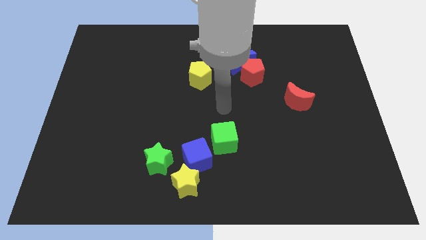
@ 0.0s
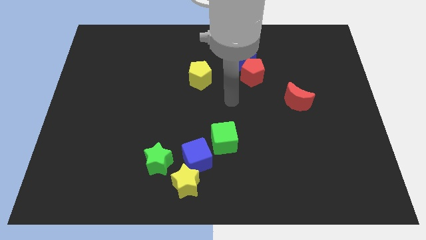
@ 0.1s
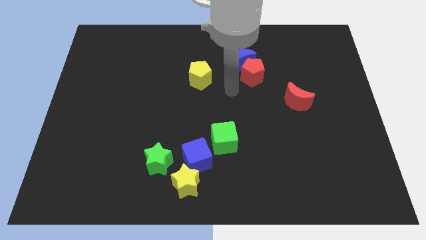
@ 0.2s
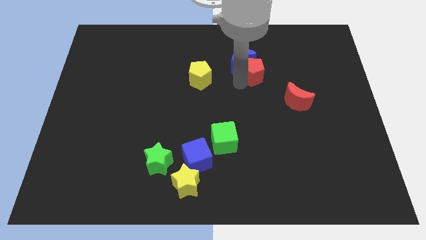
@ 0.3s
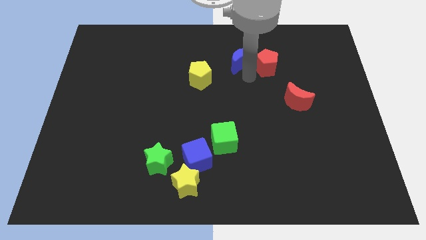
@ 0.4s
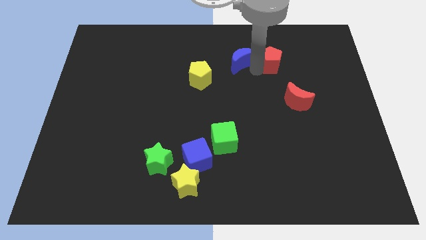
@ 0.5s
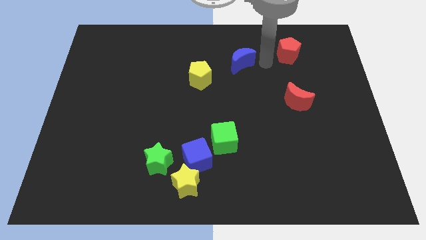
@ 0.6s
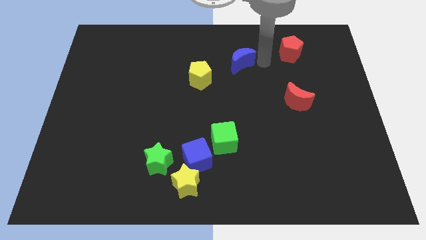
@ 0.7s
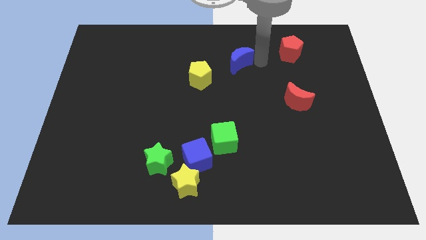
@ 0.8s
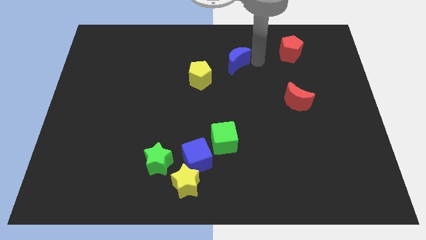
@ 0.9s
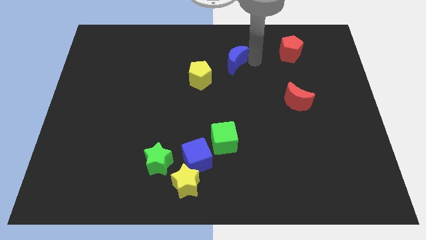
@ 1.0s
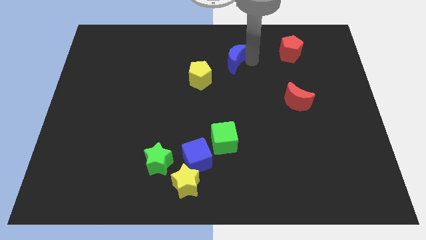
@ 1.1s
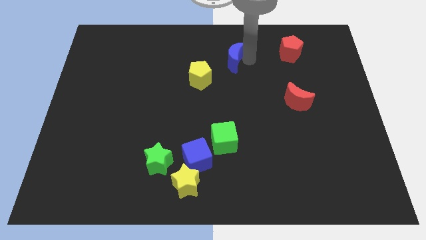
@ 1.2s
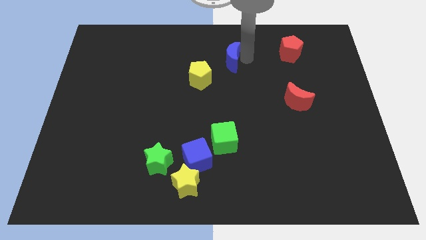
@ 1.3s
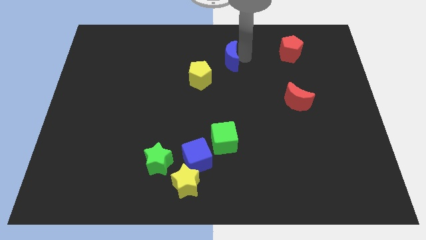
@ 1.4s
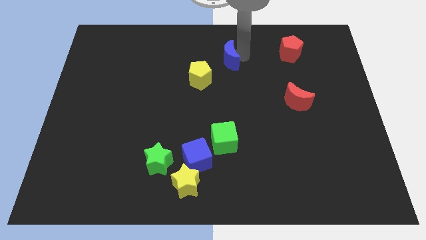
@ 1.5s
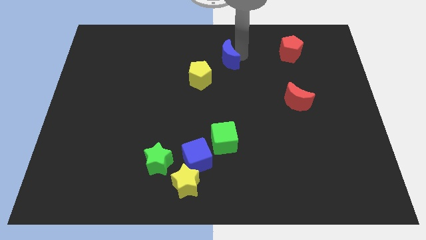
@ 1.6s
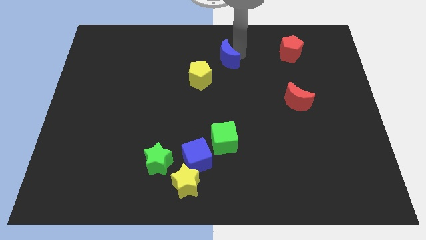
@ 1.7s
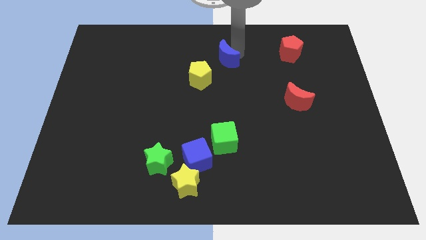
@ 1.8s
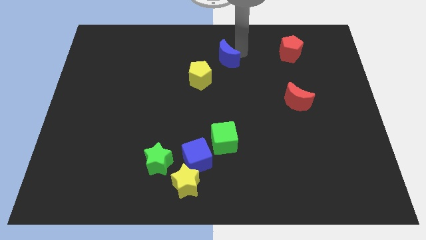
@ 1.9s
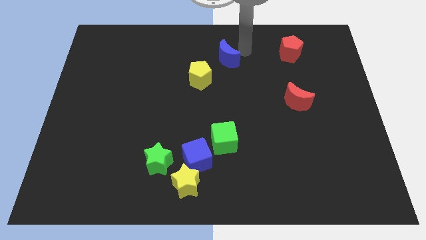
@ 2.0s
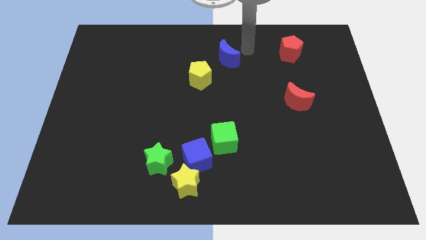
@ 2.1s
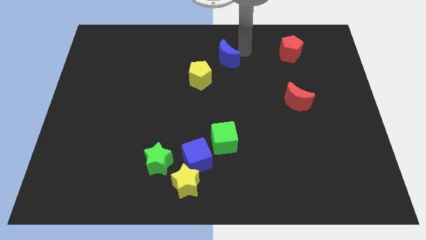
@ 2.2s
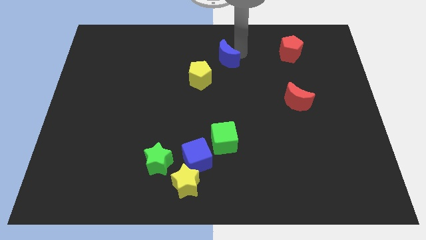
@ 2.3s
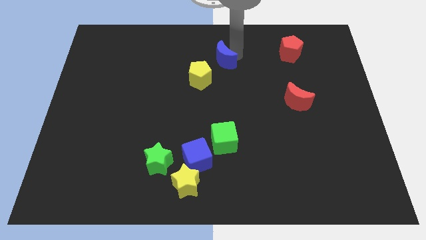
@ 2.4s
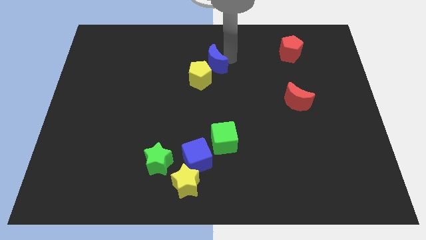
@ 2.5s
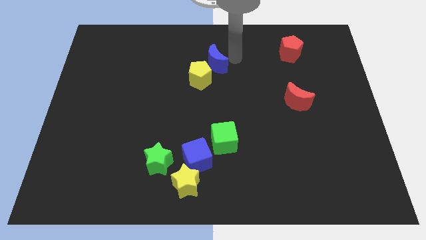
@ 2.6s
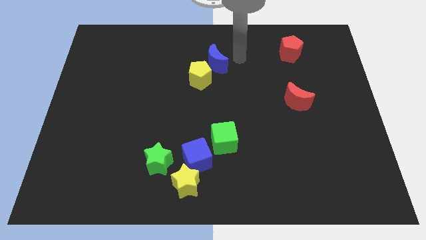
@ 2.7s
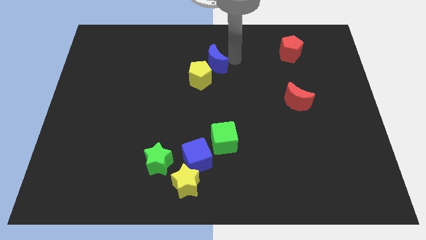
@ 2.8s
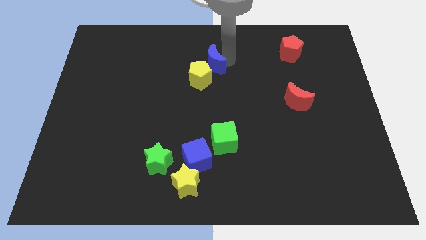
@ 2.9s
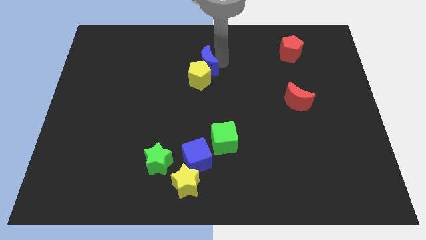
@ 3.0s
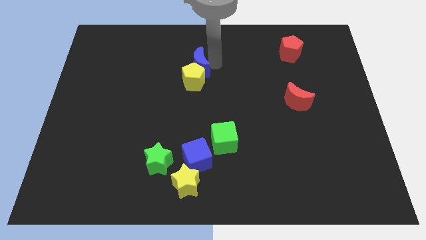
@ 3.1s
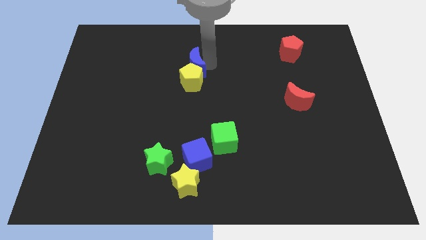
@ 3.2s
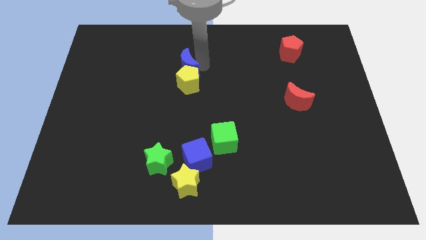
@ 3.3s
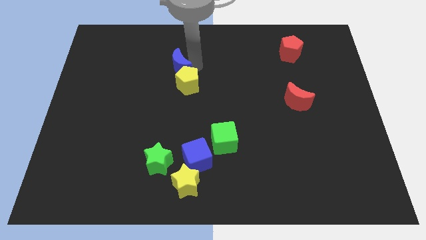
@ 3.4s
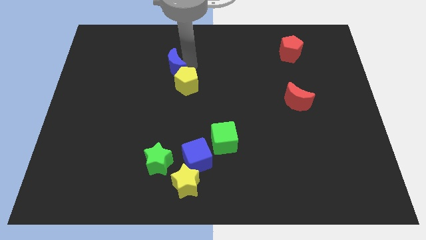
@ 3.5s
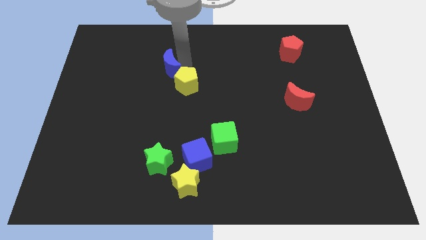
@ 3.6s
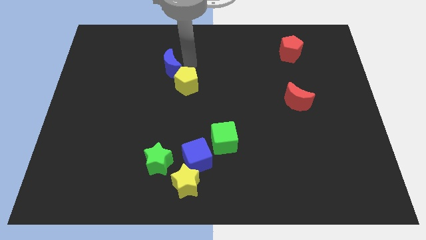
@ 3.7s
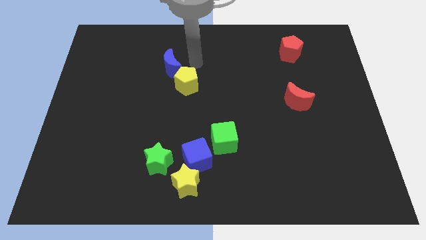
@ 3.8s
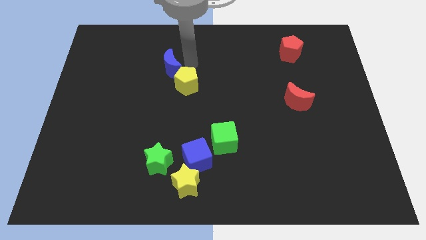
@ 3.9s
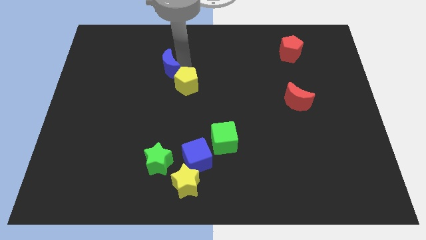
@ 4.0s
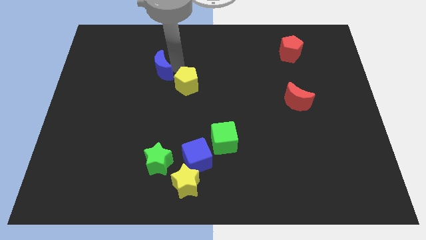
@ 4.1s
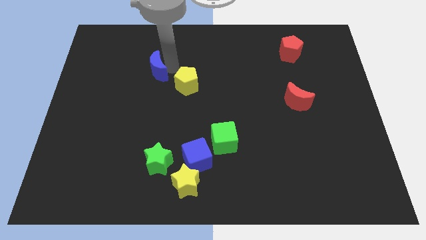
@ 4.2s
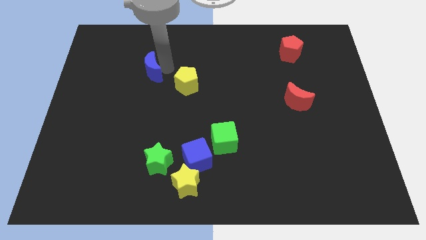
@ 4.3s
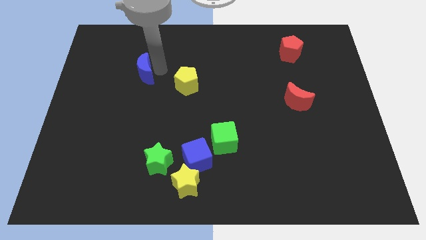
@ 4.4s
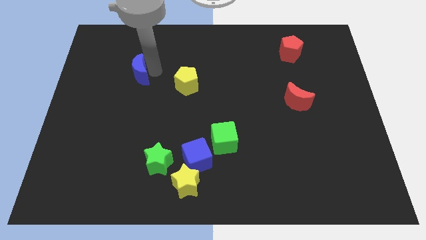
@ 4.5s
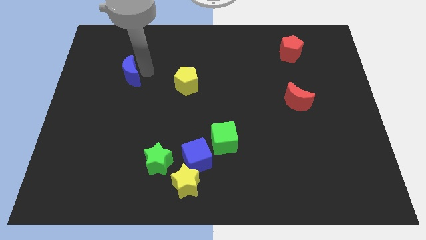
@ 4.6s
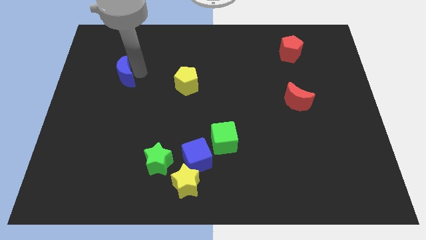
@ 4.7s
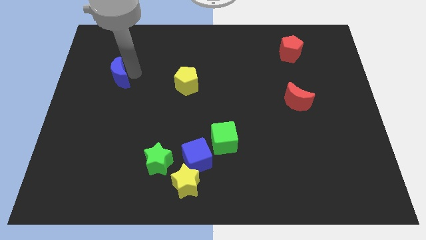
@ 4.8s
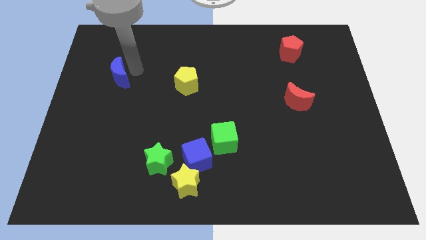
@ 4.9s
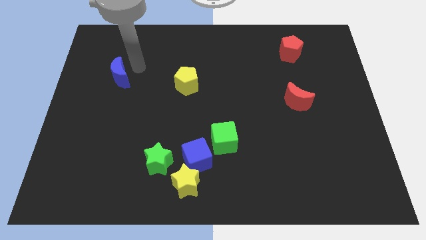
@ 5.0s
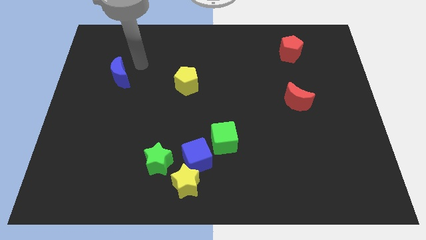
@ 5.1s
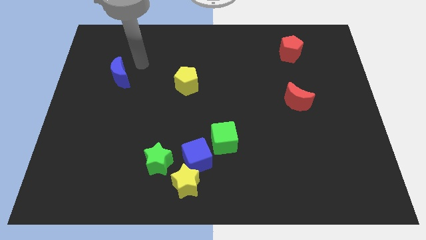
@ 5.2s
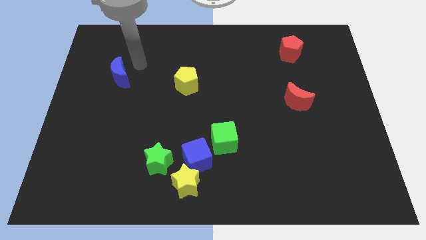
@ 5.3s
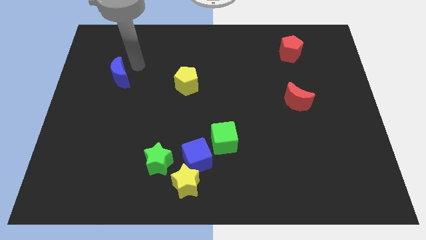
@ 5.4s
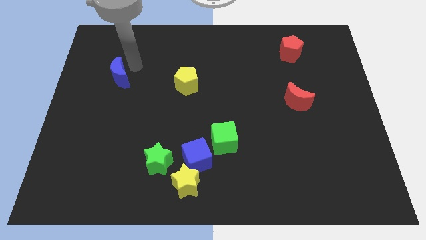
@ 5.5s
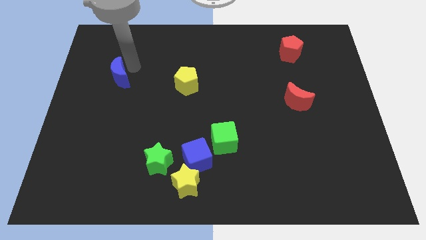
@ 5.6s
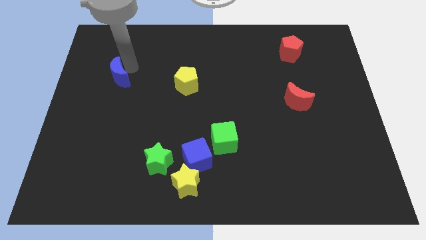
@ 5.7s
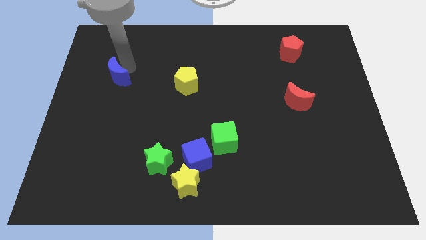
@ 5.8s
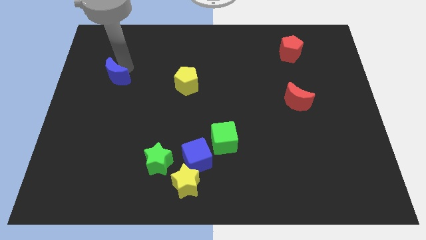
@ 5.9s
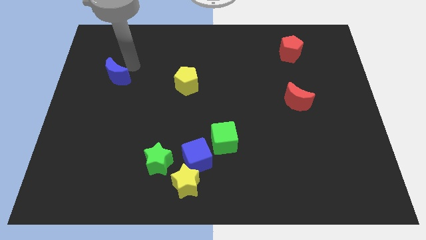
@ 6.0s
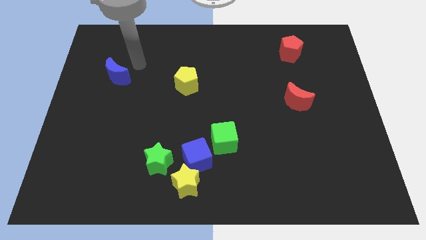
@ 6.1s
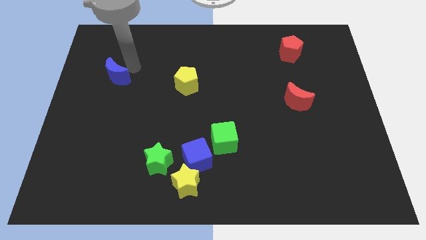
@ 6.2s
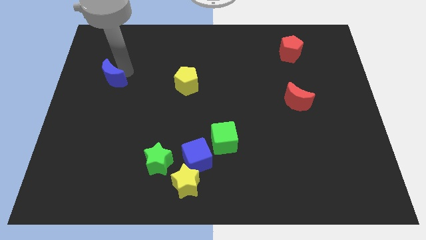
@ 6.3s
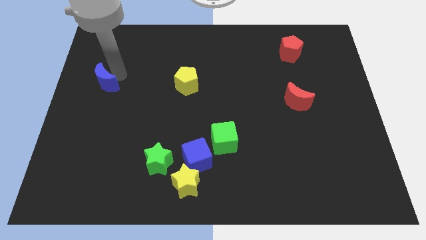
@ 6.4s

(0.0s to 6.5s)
put the blue moon to the center left
